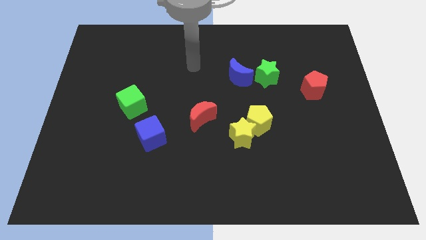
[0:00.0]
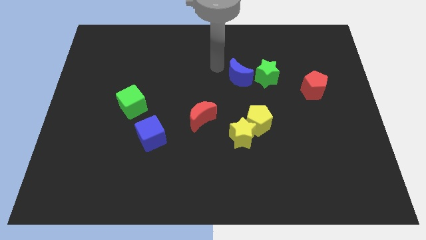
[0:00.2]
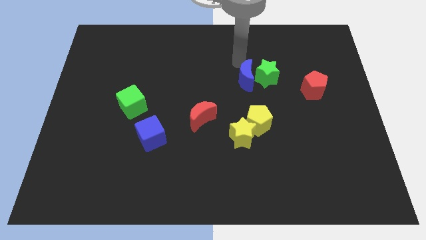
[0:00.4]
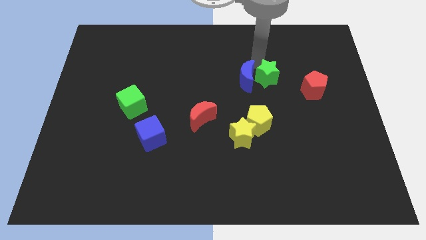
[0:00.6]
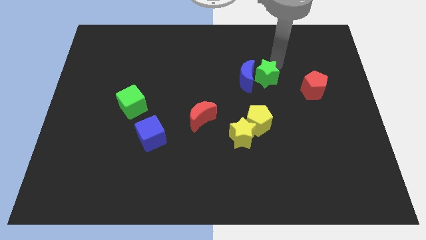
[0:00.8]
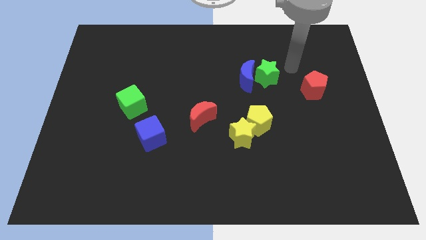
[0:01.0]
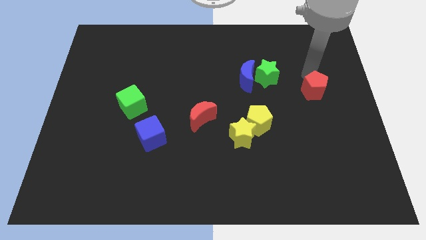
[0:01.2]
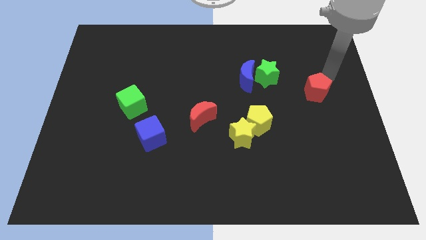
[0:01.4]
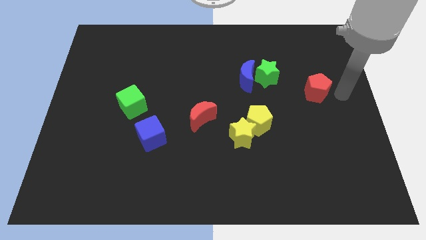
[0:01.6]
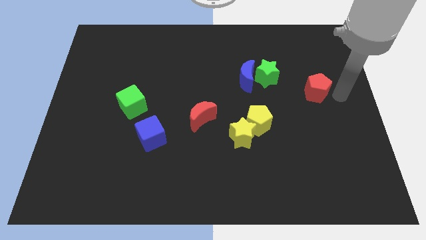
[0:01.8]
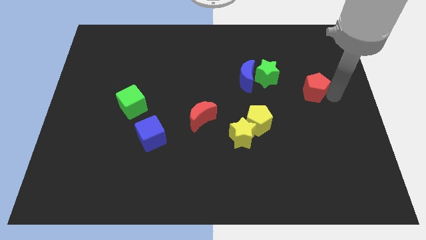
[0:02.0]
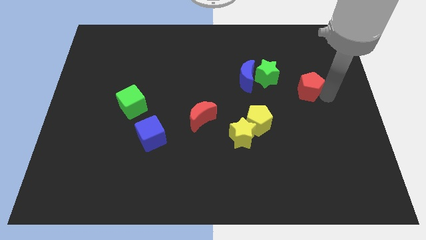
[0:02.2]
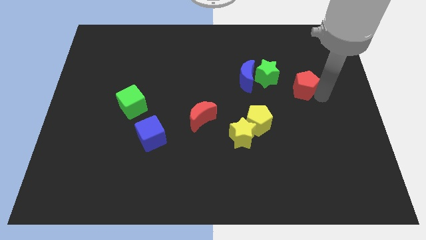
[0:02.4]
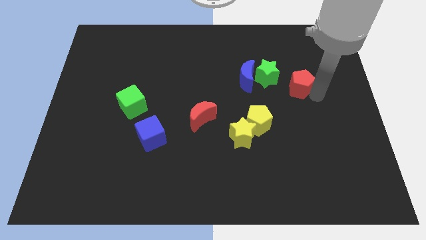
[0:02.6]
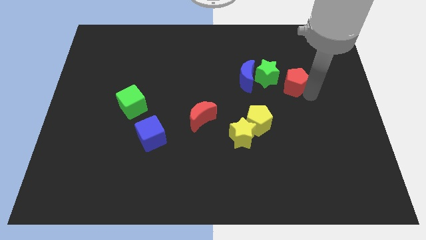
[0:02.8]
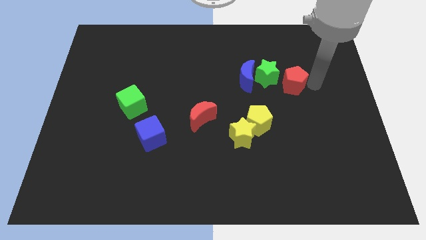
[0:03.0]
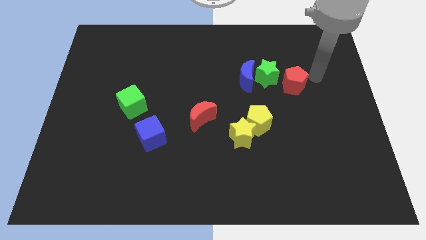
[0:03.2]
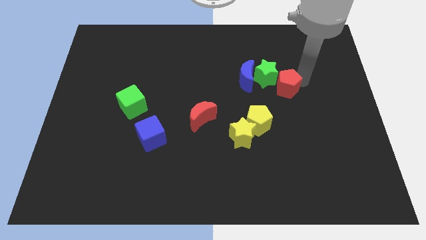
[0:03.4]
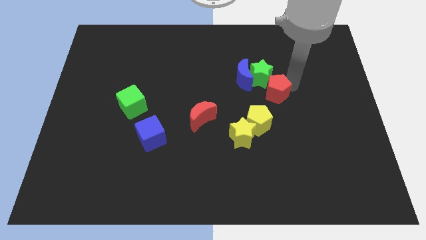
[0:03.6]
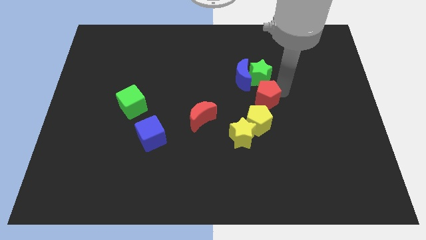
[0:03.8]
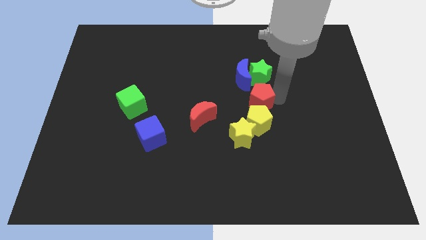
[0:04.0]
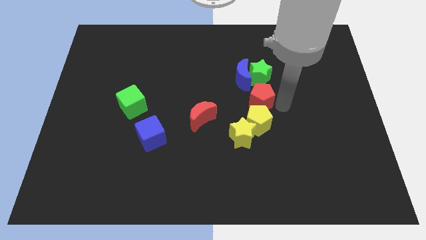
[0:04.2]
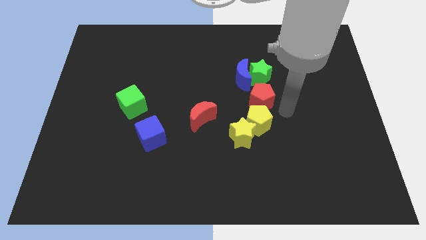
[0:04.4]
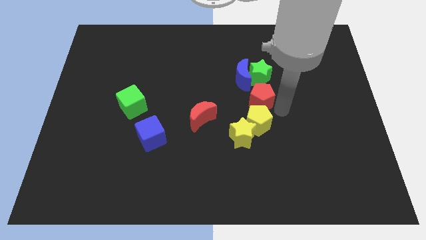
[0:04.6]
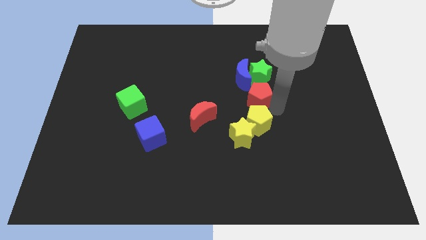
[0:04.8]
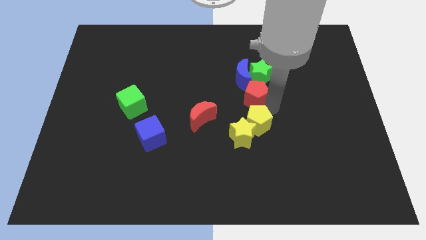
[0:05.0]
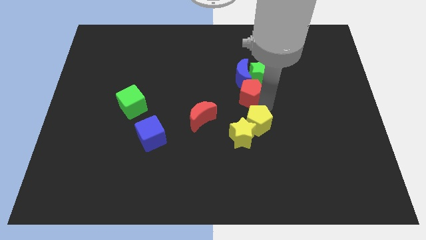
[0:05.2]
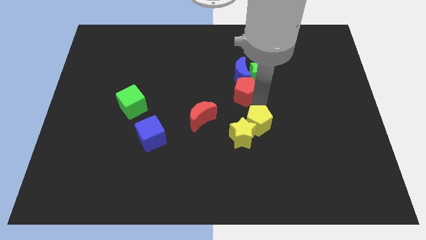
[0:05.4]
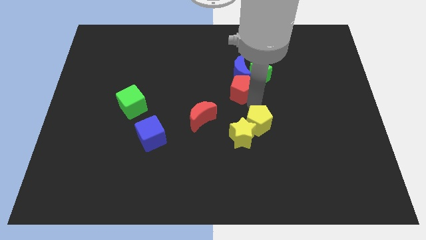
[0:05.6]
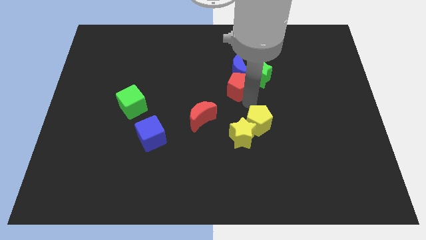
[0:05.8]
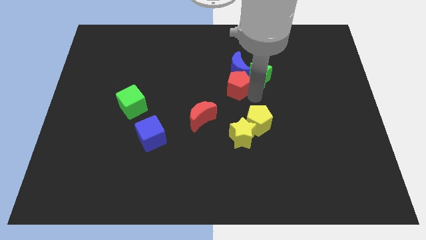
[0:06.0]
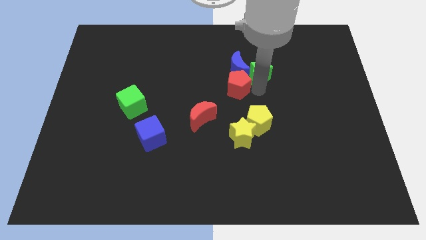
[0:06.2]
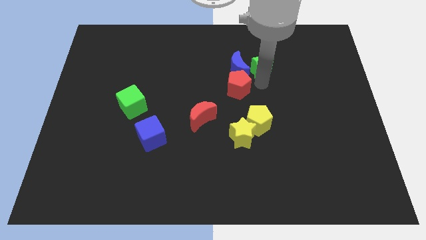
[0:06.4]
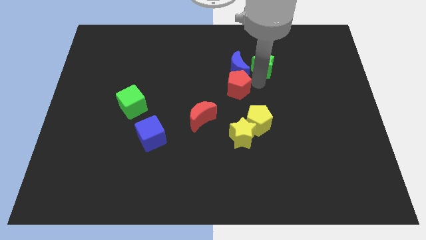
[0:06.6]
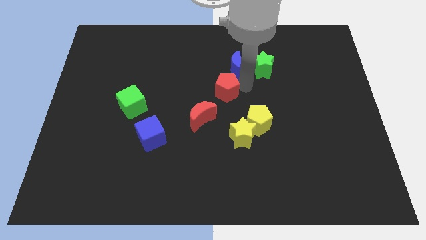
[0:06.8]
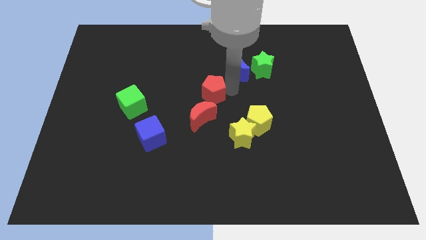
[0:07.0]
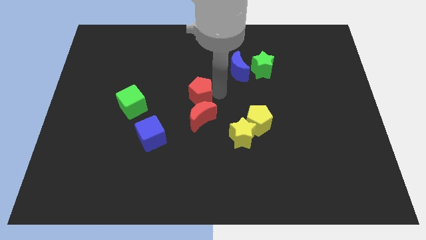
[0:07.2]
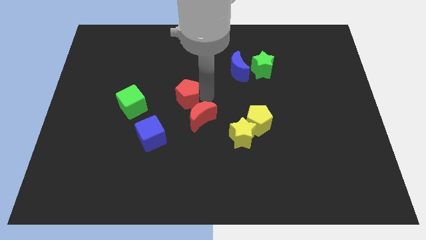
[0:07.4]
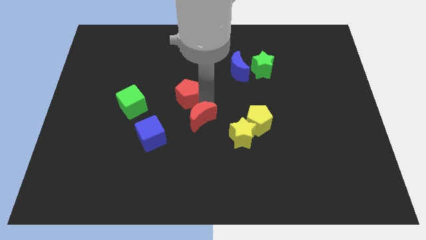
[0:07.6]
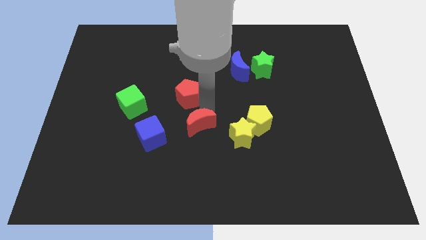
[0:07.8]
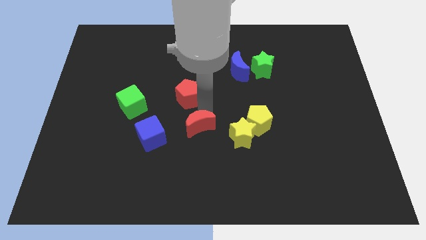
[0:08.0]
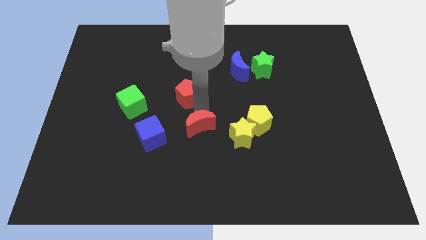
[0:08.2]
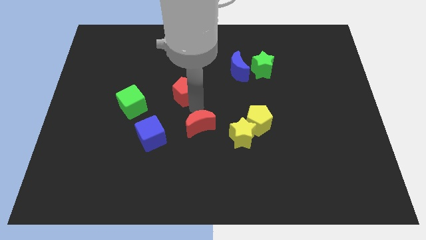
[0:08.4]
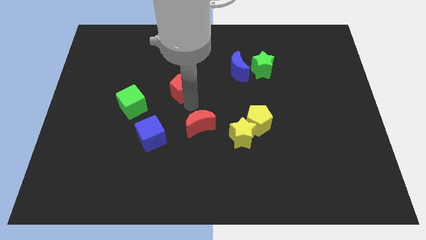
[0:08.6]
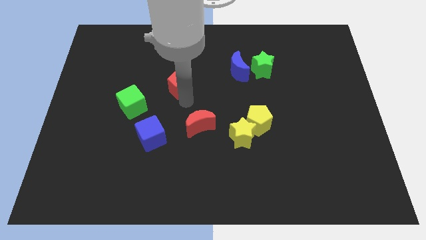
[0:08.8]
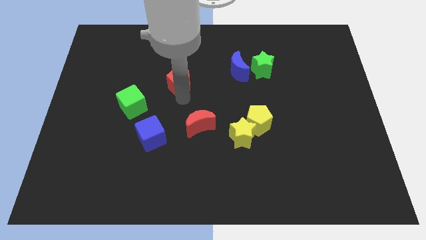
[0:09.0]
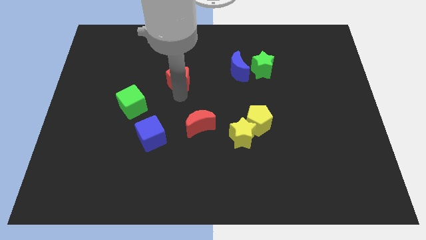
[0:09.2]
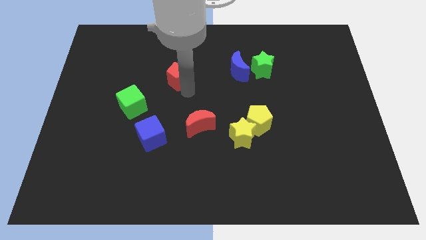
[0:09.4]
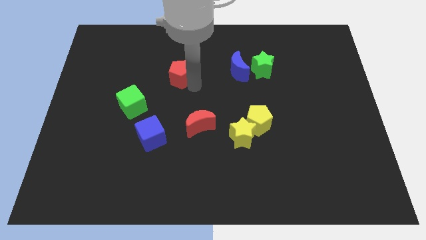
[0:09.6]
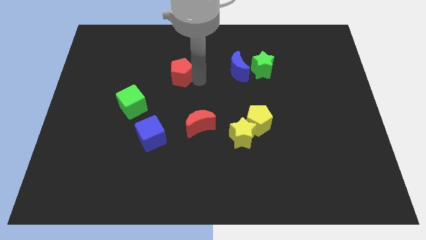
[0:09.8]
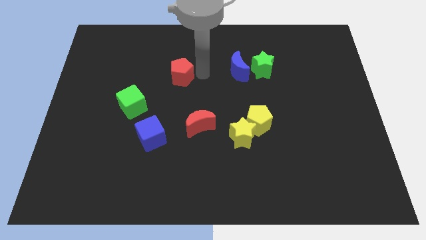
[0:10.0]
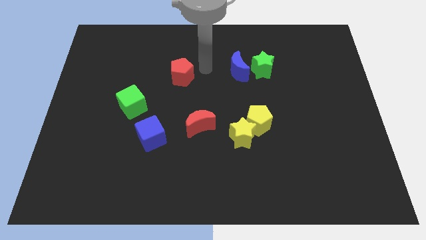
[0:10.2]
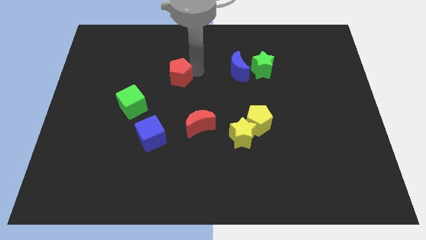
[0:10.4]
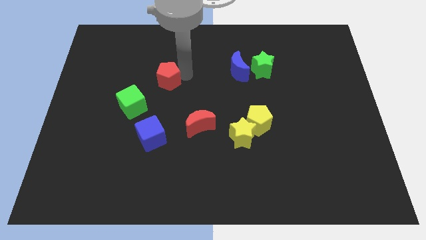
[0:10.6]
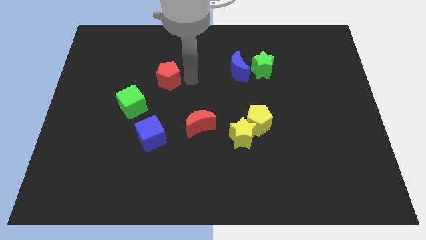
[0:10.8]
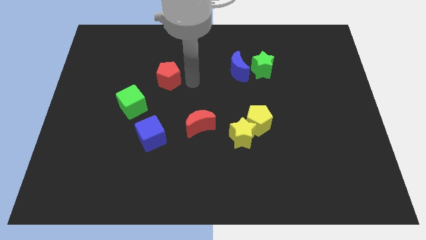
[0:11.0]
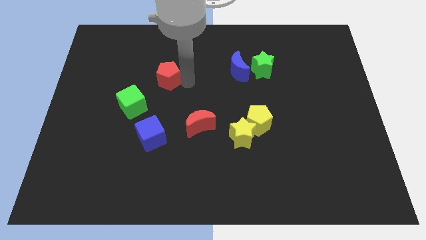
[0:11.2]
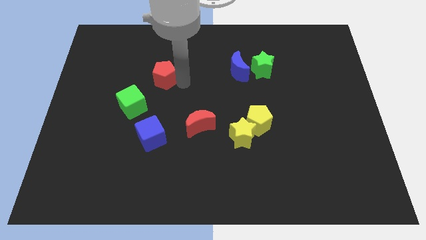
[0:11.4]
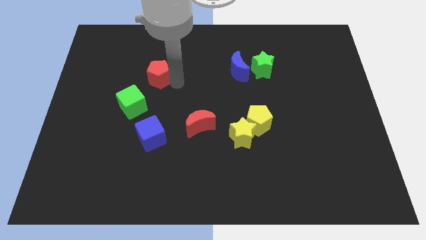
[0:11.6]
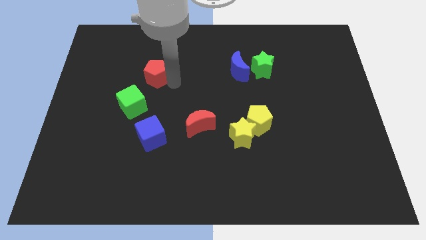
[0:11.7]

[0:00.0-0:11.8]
push the red pentagon above the green cube
